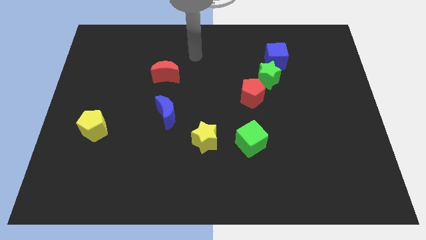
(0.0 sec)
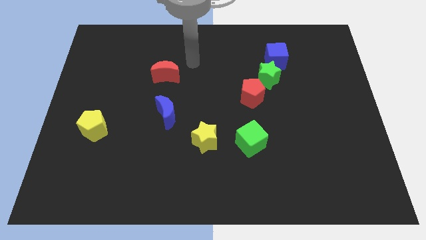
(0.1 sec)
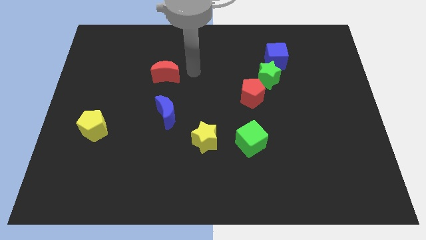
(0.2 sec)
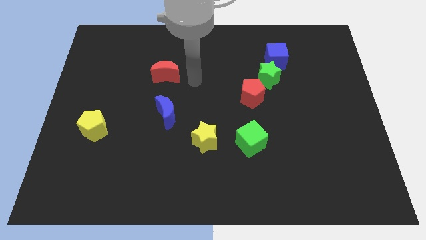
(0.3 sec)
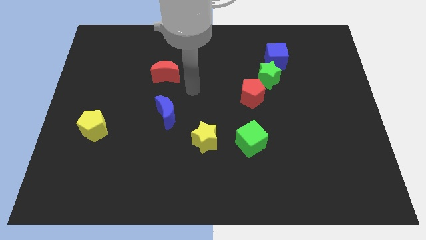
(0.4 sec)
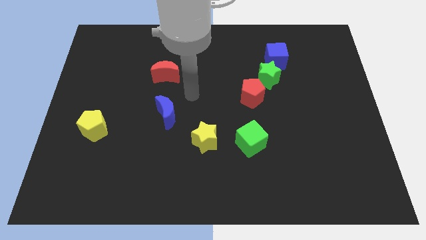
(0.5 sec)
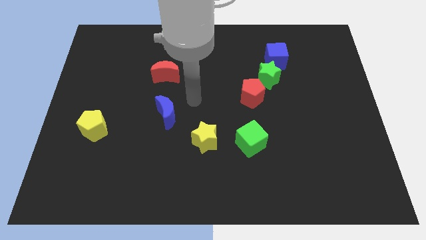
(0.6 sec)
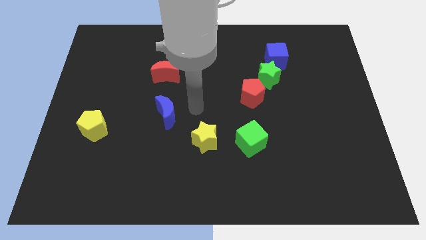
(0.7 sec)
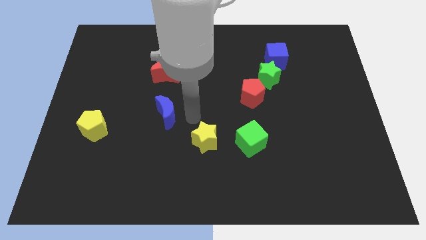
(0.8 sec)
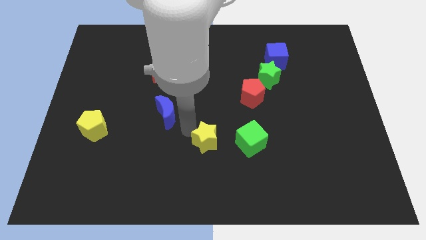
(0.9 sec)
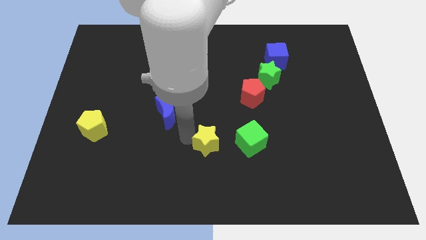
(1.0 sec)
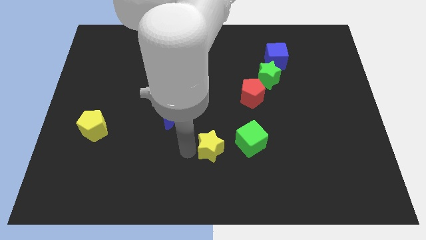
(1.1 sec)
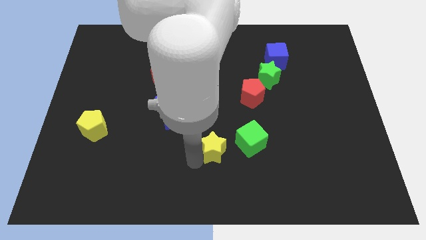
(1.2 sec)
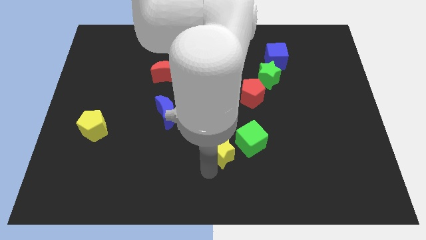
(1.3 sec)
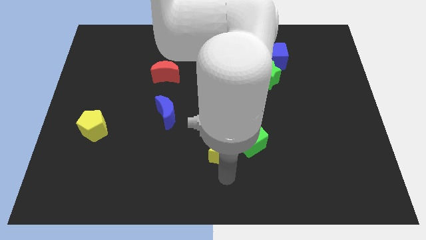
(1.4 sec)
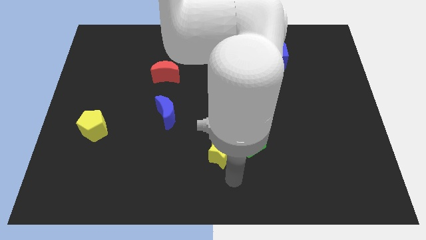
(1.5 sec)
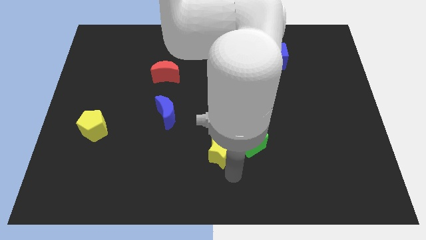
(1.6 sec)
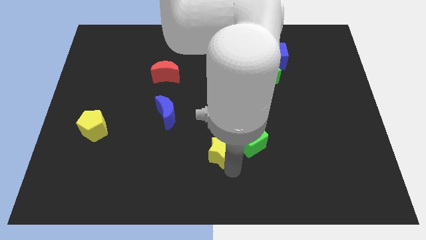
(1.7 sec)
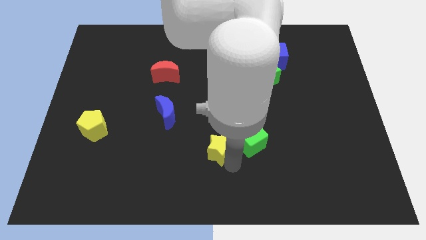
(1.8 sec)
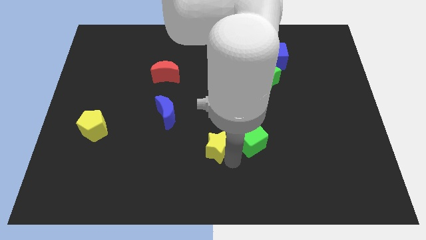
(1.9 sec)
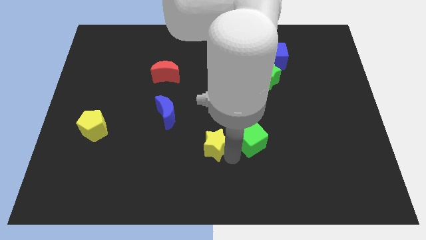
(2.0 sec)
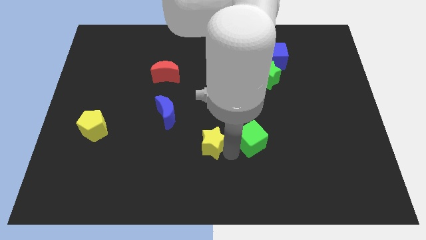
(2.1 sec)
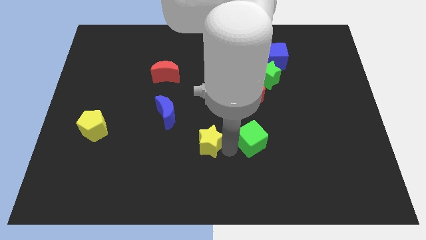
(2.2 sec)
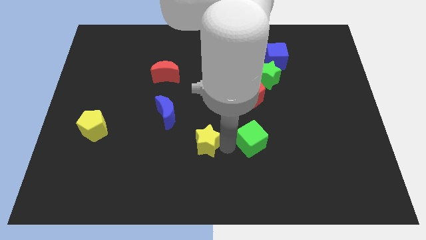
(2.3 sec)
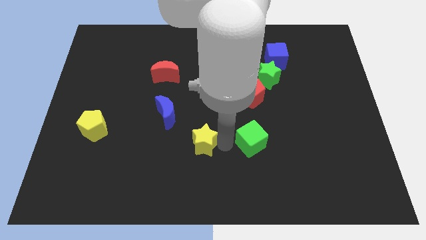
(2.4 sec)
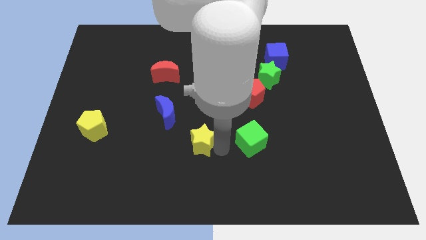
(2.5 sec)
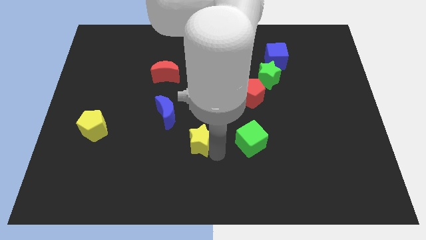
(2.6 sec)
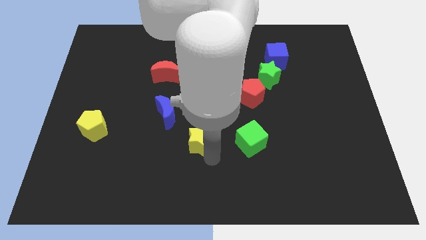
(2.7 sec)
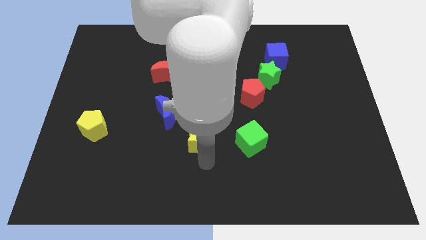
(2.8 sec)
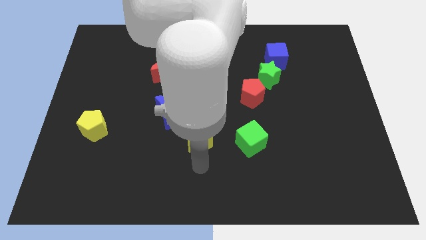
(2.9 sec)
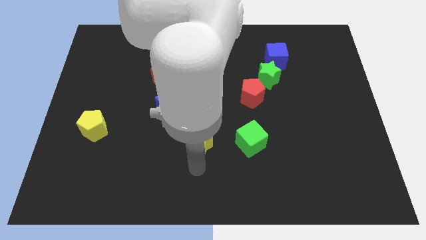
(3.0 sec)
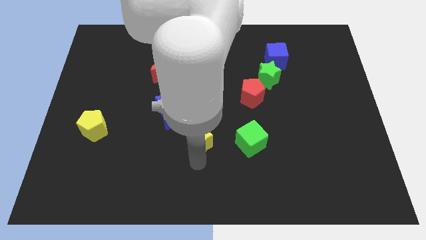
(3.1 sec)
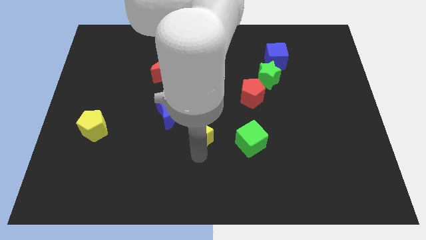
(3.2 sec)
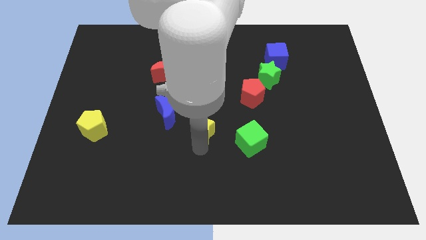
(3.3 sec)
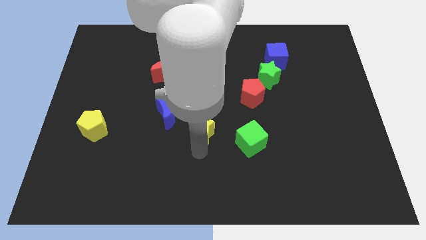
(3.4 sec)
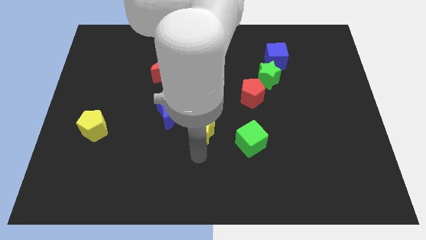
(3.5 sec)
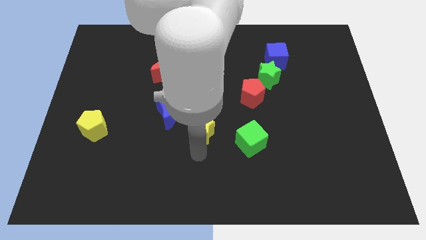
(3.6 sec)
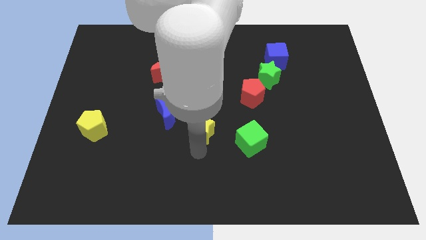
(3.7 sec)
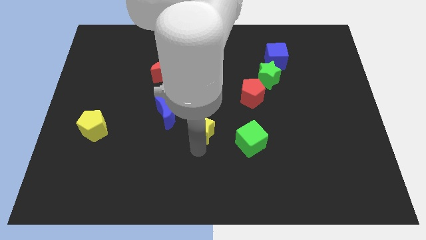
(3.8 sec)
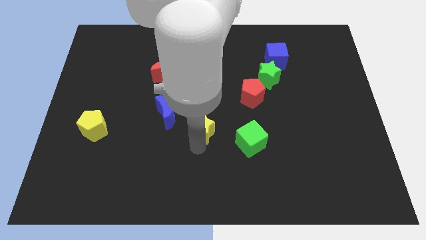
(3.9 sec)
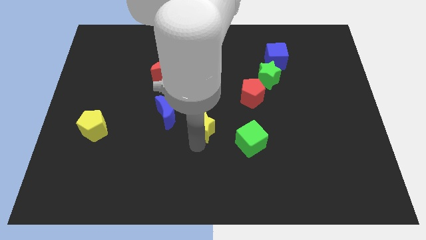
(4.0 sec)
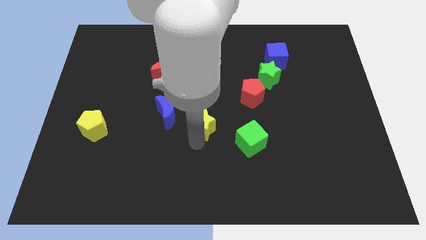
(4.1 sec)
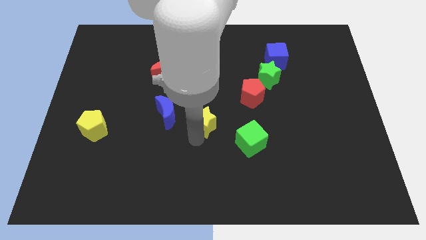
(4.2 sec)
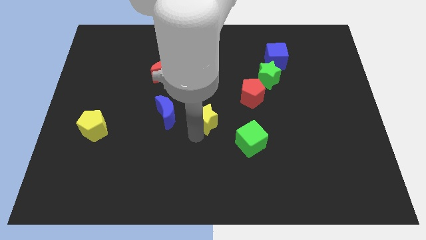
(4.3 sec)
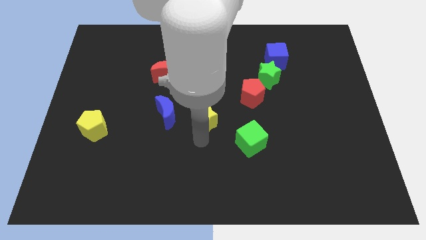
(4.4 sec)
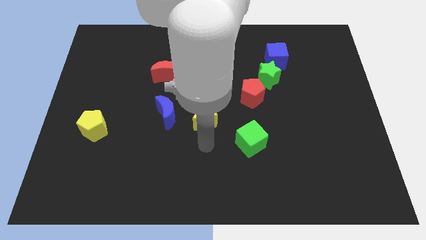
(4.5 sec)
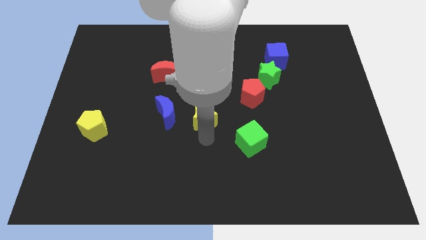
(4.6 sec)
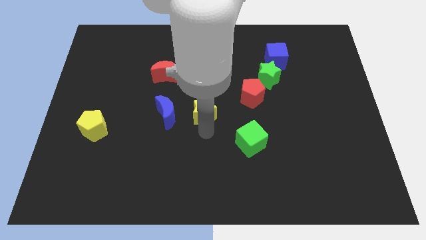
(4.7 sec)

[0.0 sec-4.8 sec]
slightly move the yellow star up

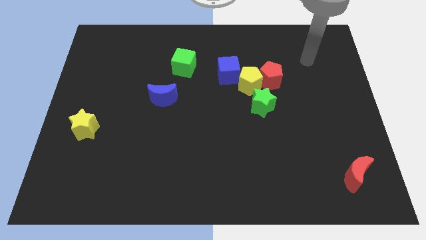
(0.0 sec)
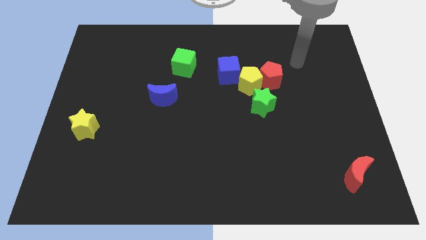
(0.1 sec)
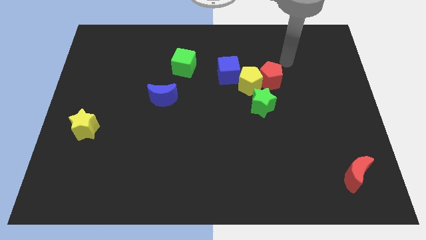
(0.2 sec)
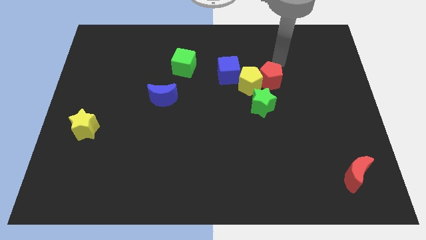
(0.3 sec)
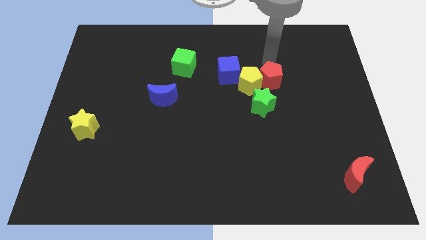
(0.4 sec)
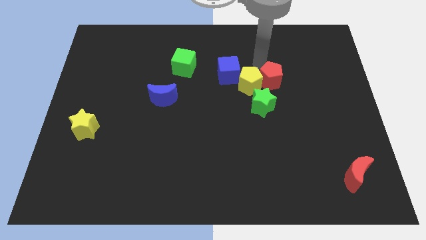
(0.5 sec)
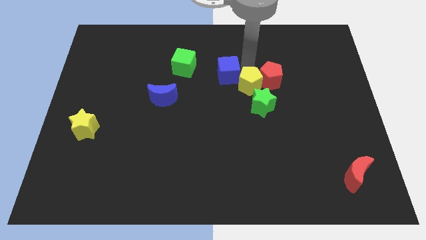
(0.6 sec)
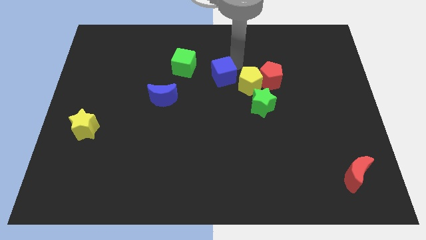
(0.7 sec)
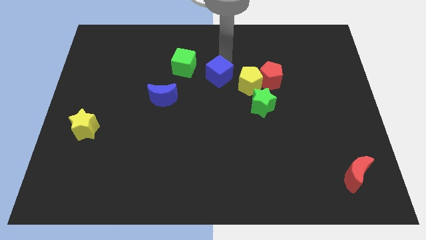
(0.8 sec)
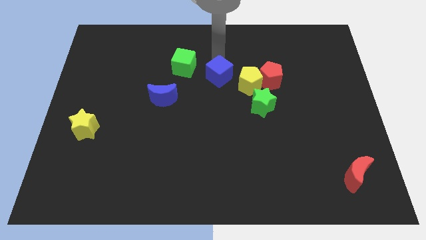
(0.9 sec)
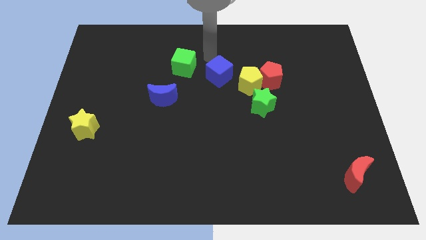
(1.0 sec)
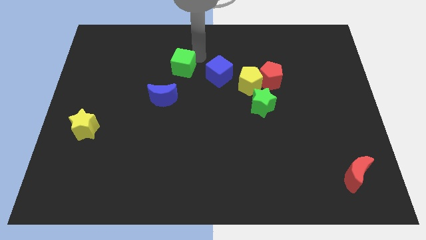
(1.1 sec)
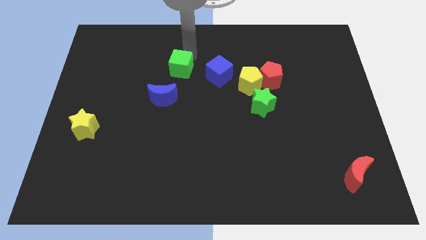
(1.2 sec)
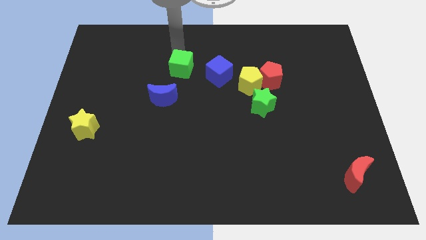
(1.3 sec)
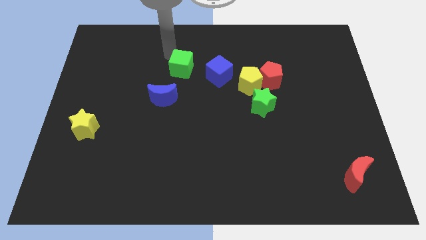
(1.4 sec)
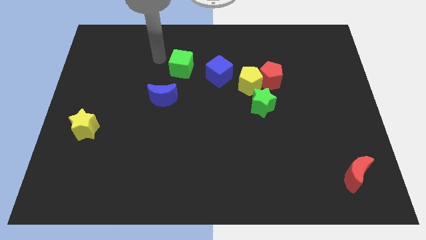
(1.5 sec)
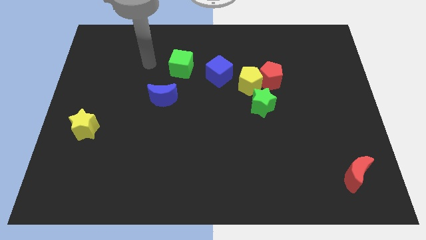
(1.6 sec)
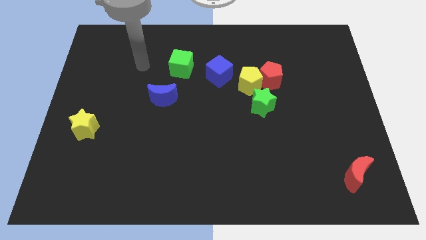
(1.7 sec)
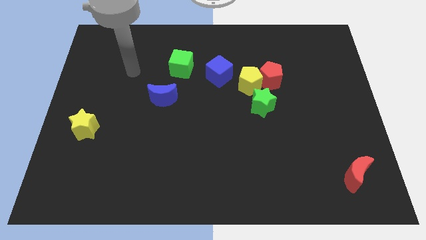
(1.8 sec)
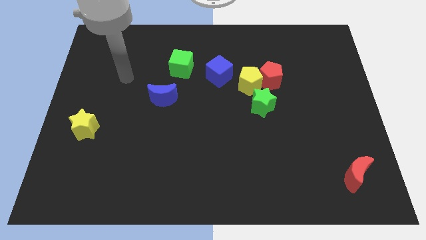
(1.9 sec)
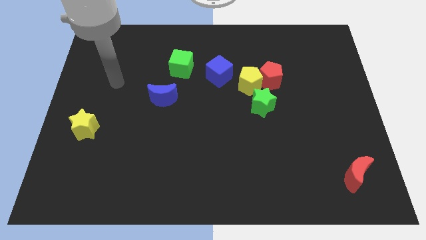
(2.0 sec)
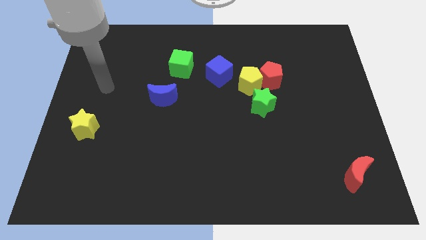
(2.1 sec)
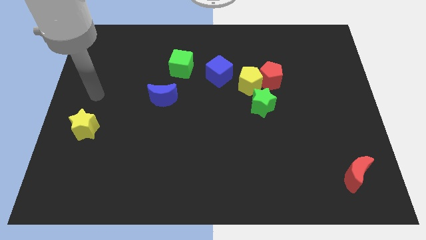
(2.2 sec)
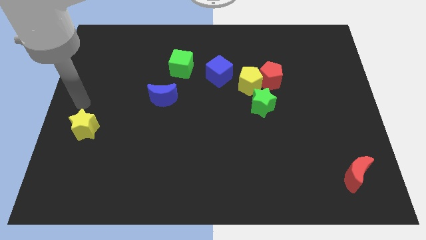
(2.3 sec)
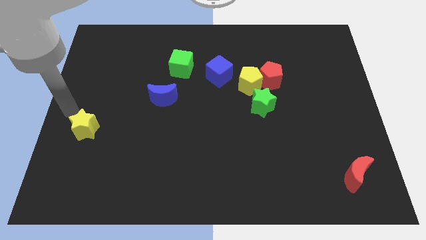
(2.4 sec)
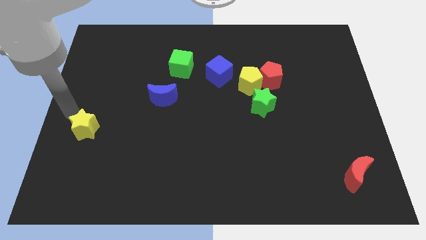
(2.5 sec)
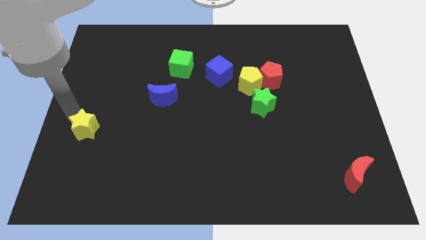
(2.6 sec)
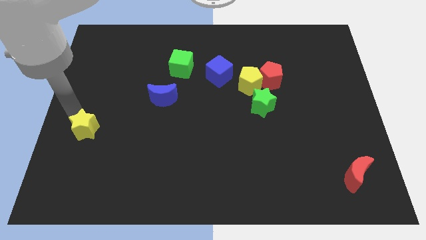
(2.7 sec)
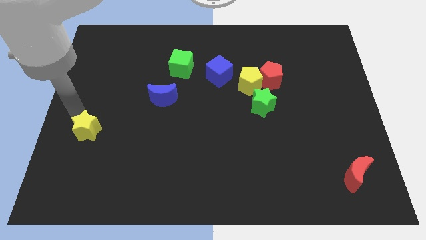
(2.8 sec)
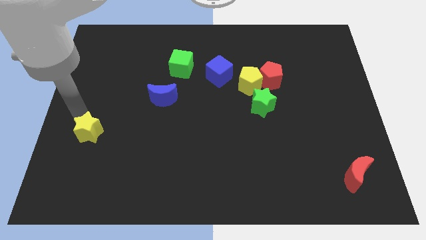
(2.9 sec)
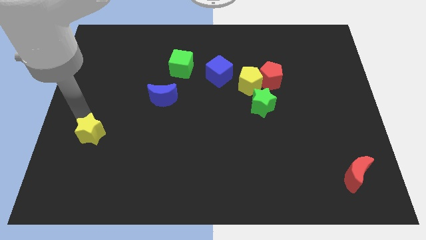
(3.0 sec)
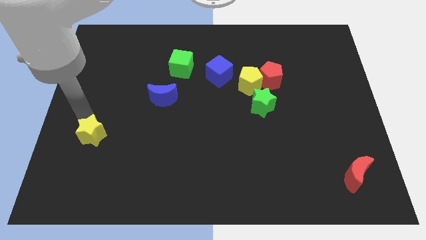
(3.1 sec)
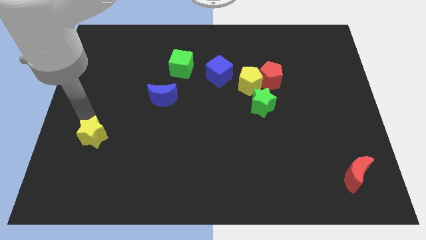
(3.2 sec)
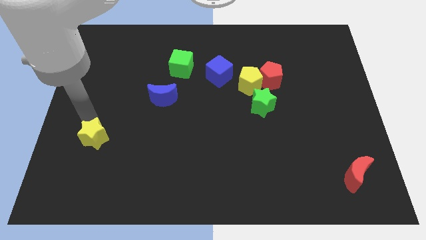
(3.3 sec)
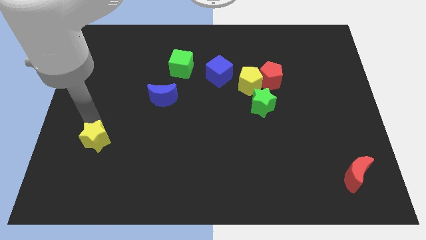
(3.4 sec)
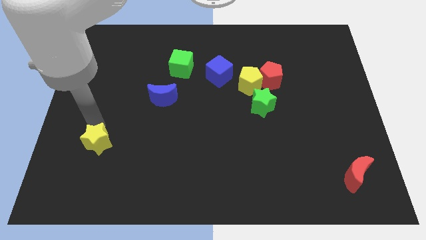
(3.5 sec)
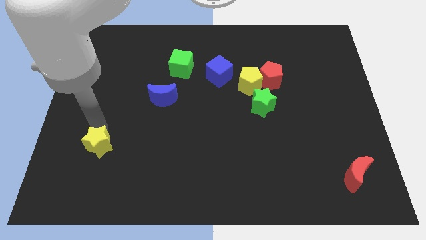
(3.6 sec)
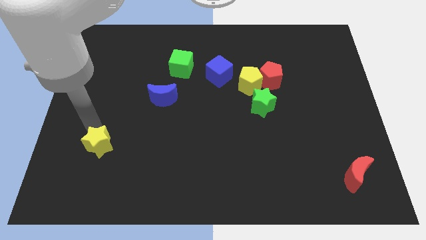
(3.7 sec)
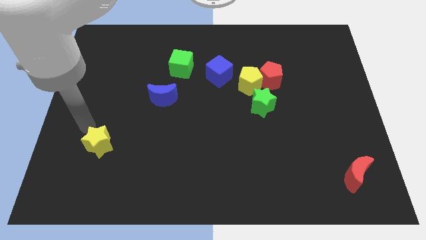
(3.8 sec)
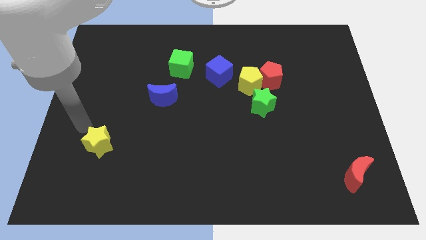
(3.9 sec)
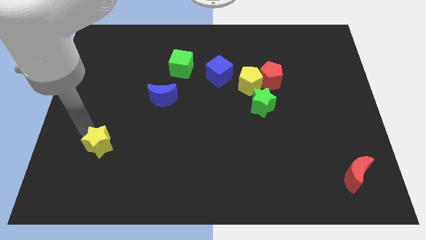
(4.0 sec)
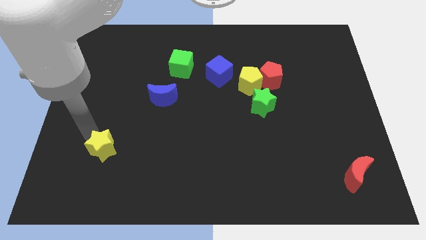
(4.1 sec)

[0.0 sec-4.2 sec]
slightly move the yellow star downwards and to the right
